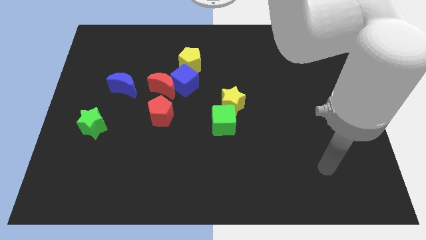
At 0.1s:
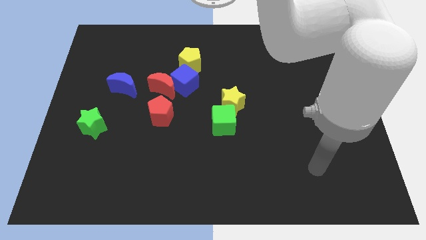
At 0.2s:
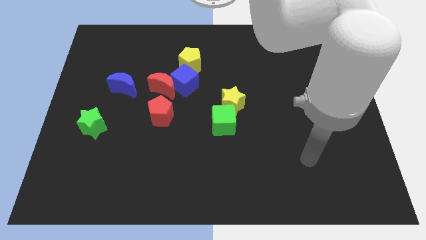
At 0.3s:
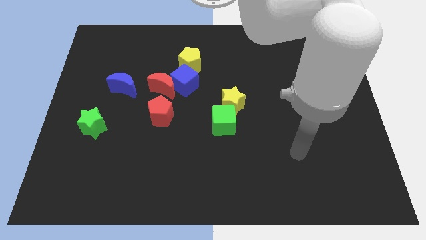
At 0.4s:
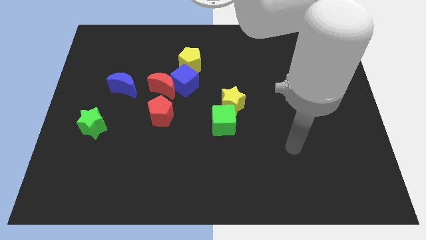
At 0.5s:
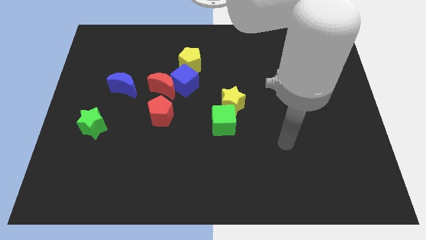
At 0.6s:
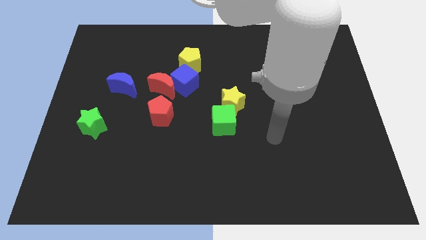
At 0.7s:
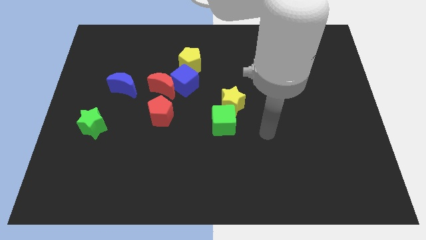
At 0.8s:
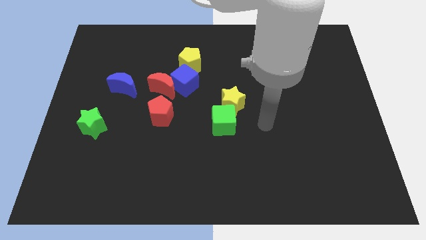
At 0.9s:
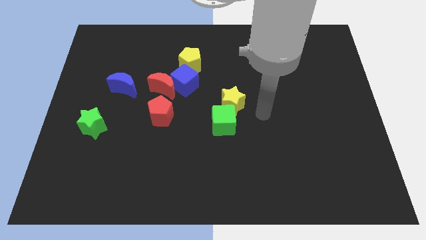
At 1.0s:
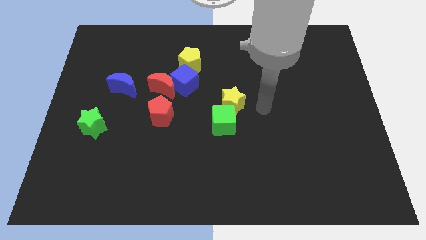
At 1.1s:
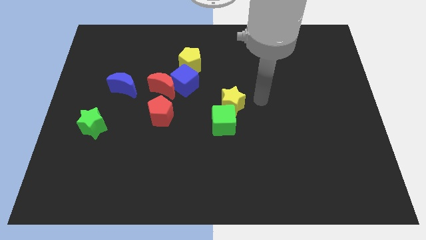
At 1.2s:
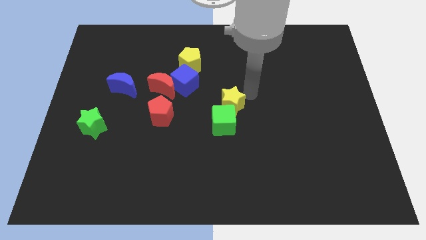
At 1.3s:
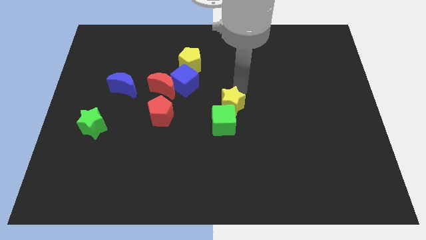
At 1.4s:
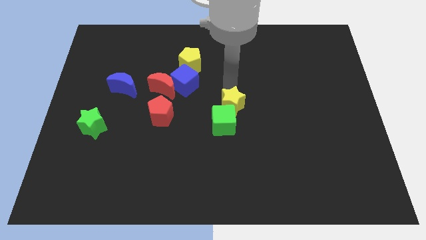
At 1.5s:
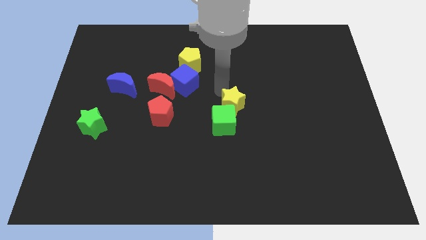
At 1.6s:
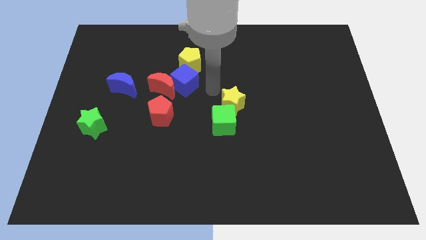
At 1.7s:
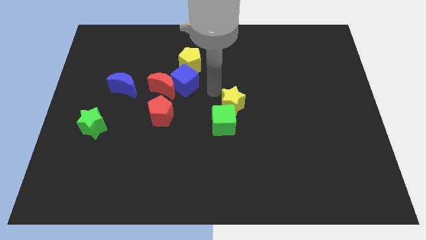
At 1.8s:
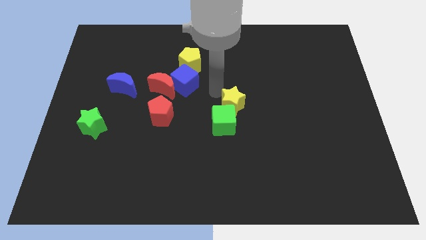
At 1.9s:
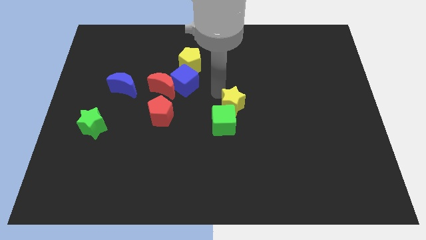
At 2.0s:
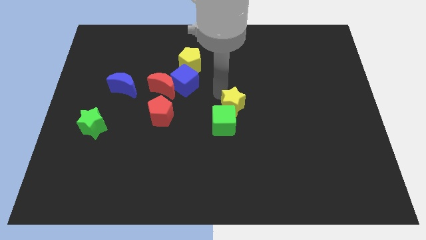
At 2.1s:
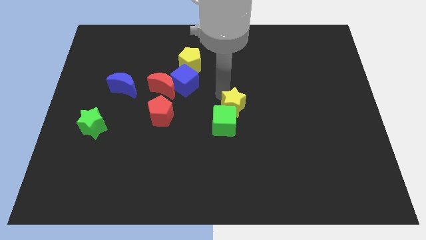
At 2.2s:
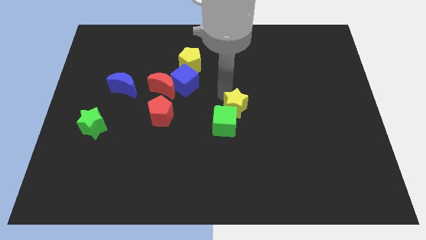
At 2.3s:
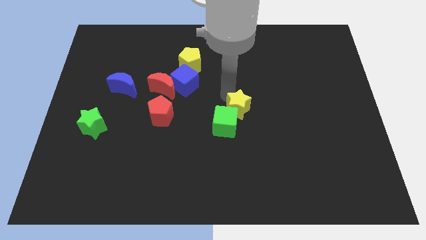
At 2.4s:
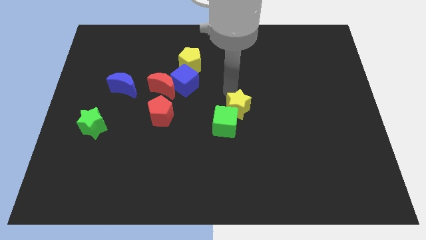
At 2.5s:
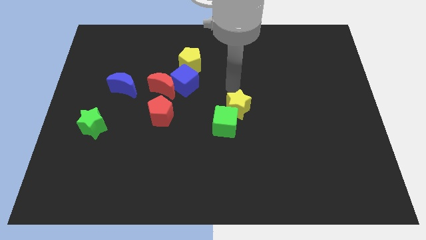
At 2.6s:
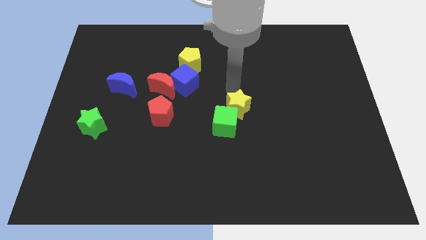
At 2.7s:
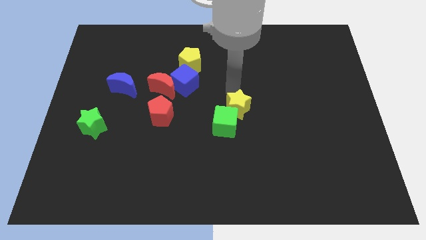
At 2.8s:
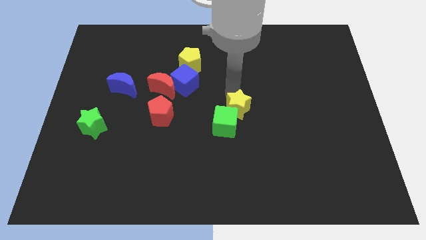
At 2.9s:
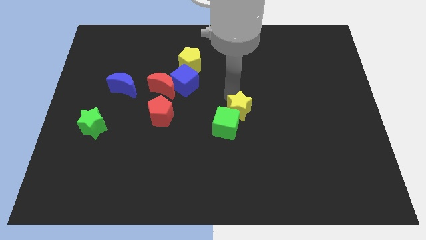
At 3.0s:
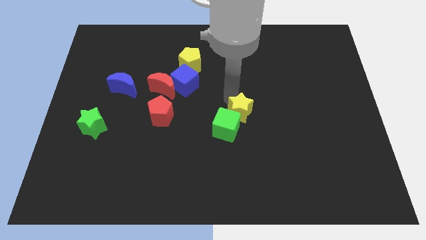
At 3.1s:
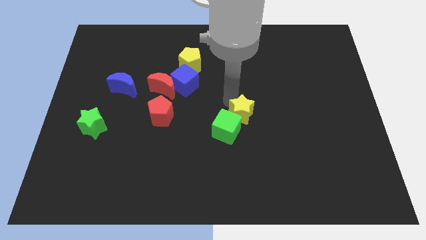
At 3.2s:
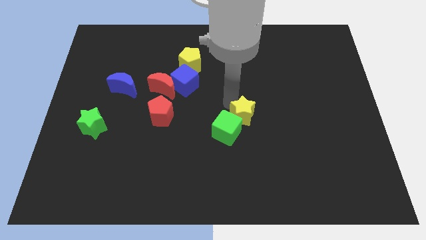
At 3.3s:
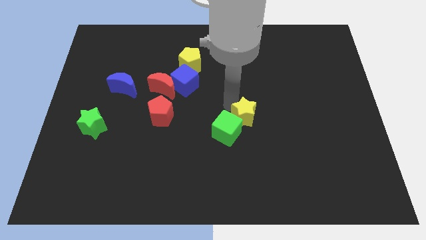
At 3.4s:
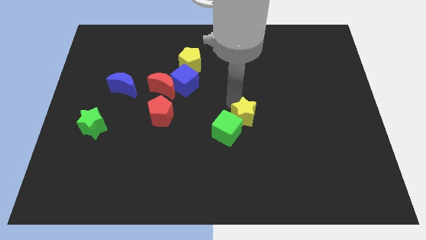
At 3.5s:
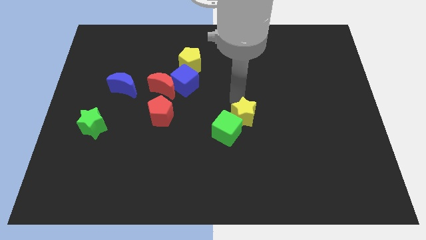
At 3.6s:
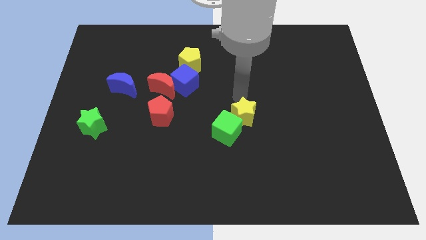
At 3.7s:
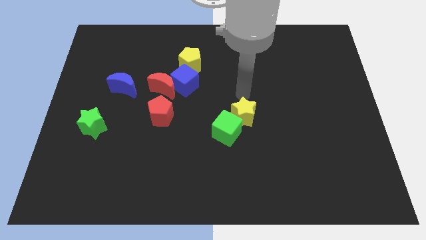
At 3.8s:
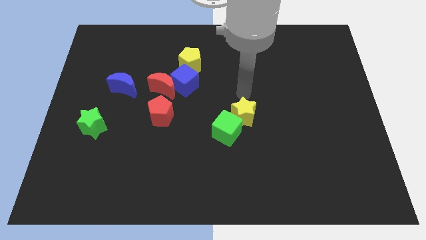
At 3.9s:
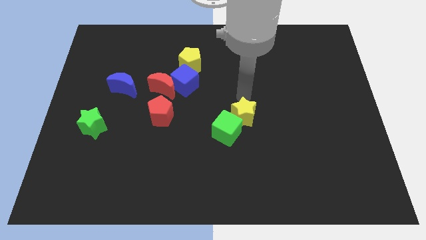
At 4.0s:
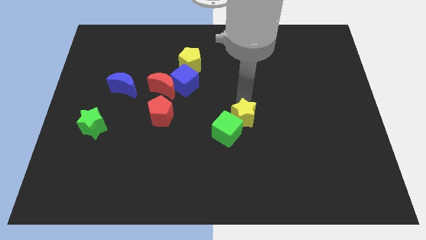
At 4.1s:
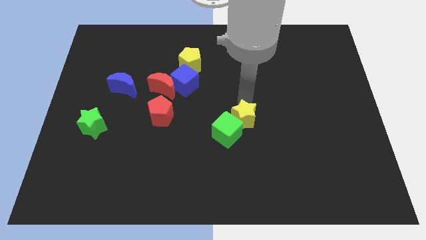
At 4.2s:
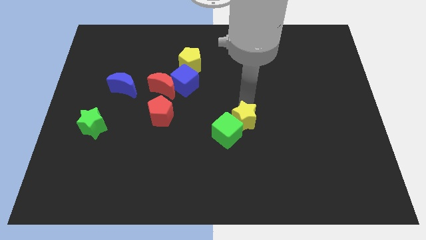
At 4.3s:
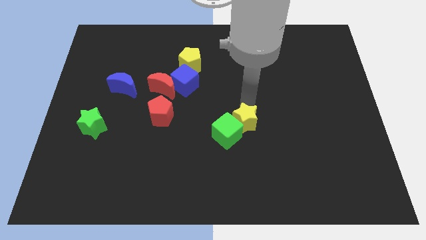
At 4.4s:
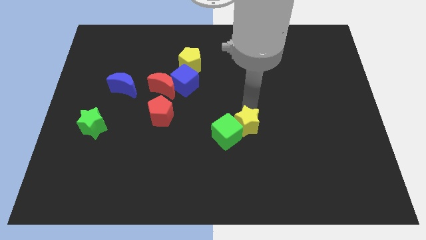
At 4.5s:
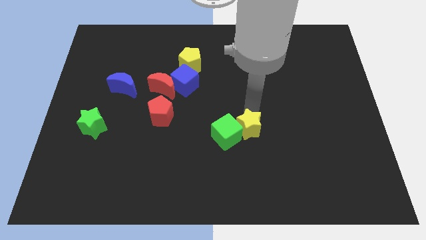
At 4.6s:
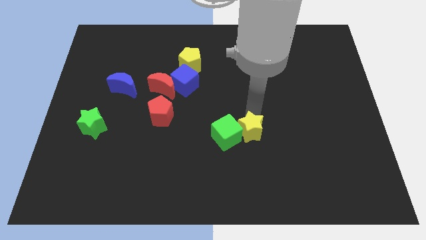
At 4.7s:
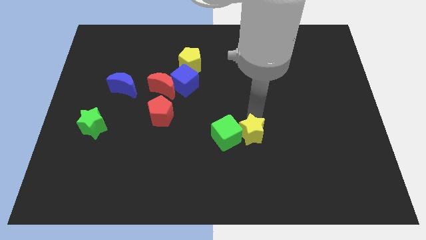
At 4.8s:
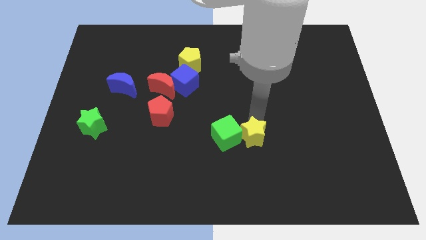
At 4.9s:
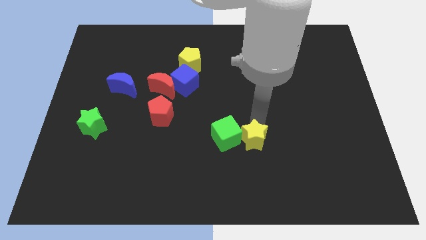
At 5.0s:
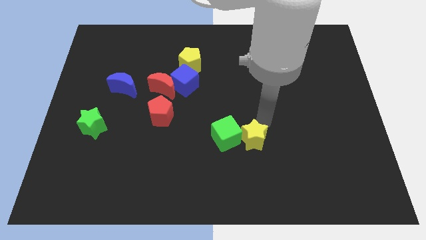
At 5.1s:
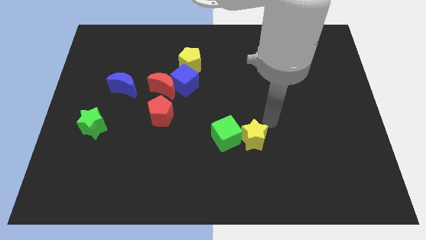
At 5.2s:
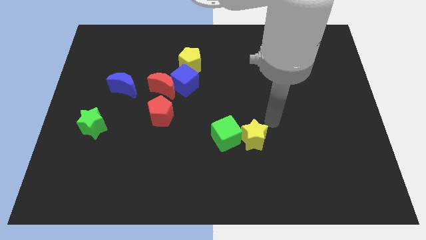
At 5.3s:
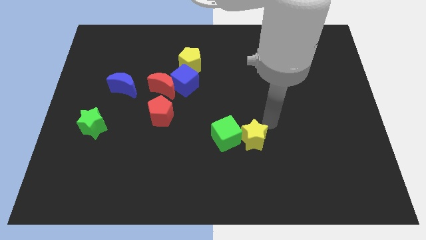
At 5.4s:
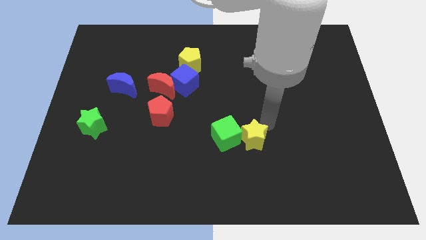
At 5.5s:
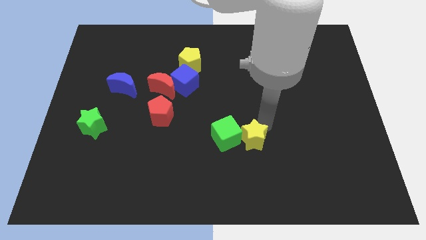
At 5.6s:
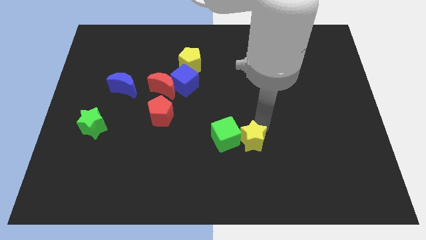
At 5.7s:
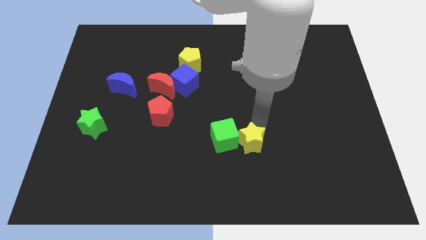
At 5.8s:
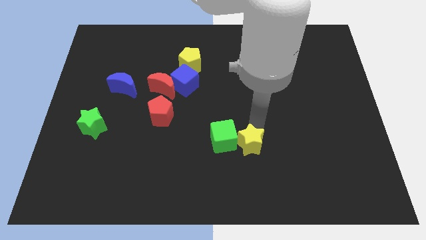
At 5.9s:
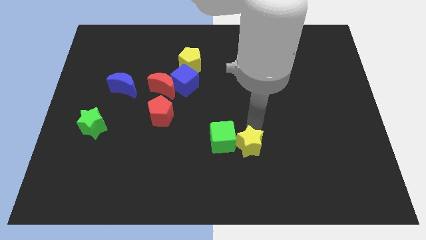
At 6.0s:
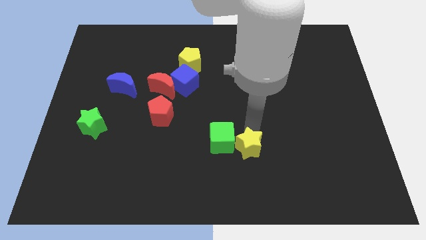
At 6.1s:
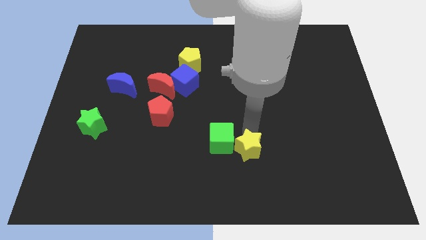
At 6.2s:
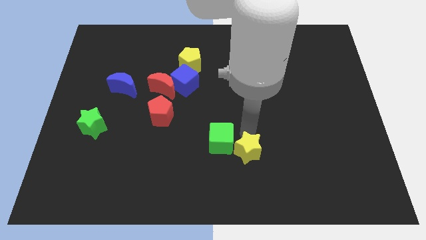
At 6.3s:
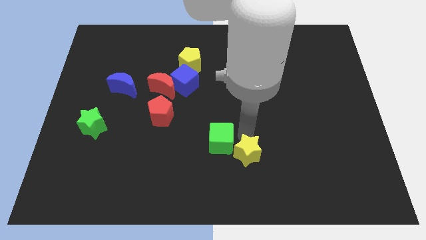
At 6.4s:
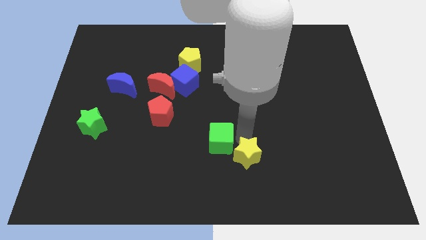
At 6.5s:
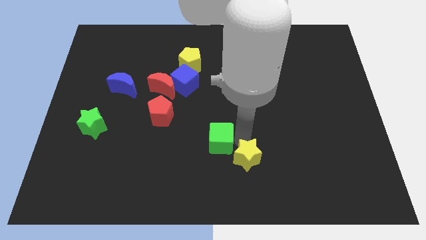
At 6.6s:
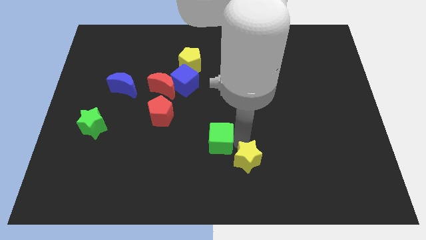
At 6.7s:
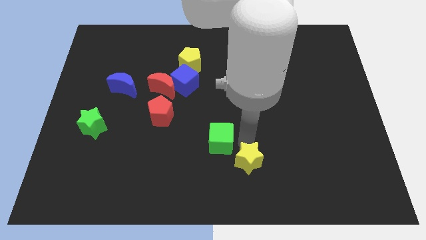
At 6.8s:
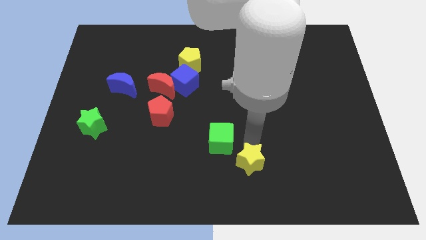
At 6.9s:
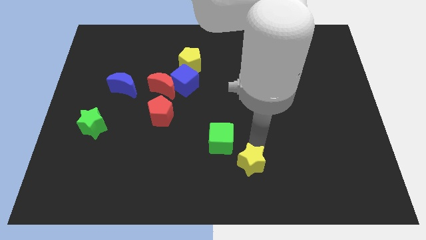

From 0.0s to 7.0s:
put the yellow star to the bottom side

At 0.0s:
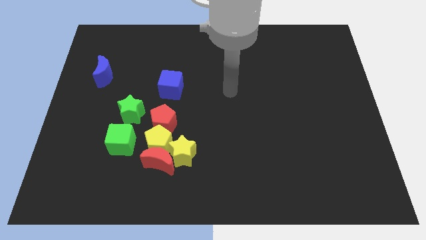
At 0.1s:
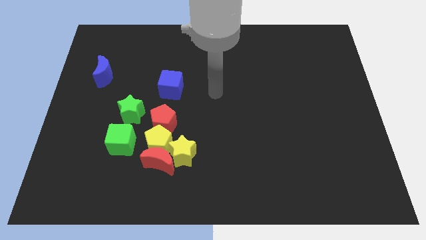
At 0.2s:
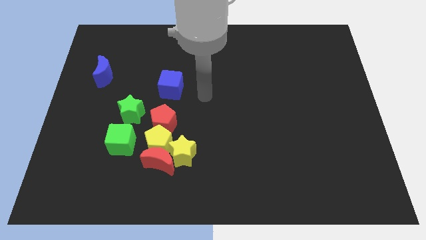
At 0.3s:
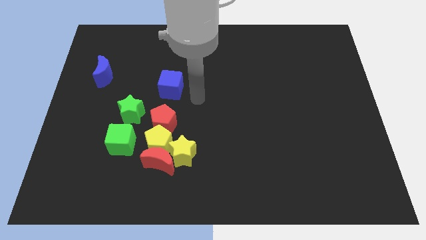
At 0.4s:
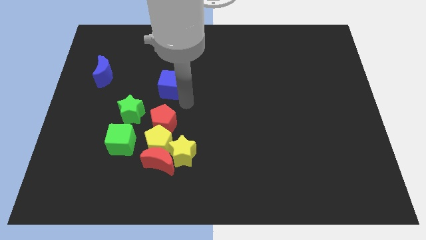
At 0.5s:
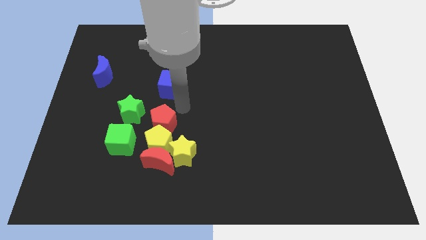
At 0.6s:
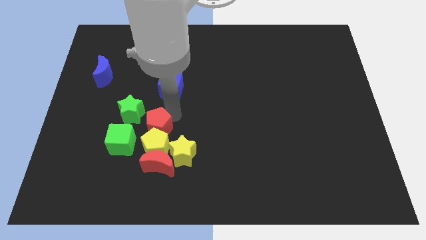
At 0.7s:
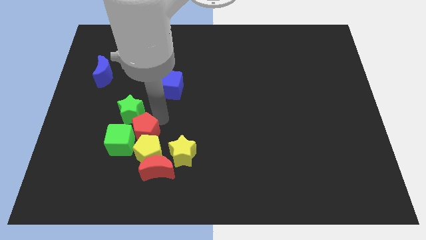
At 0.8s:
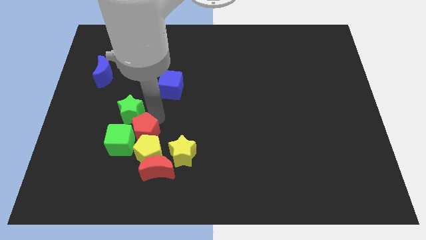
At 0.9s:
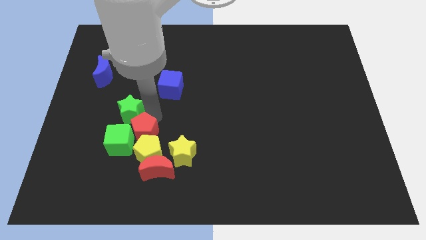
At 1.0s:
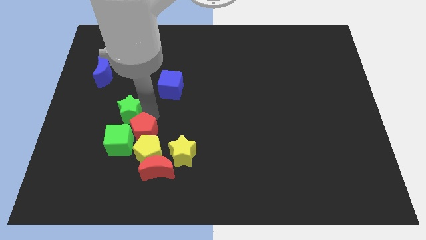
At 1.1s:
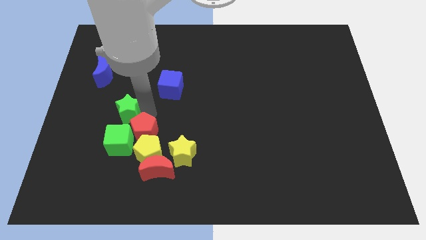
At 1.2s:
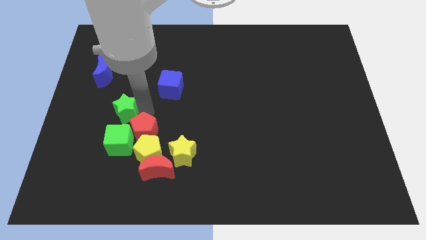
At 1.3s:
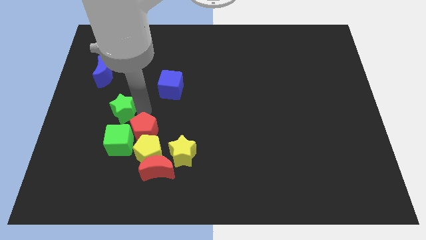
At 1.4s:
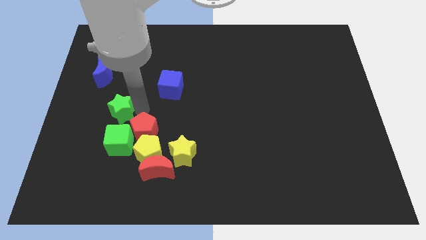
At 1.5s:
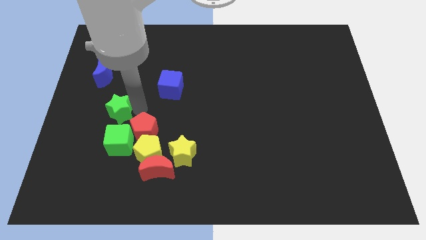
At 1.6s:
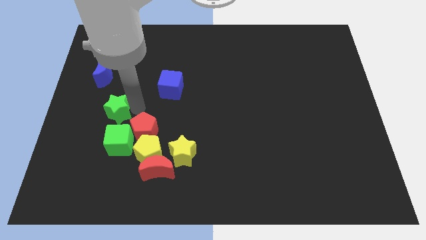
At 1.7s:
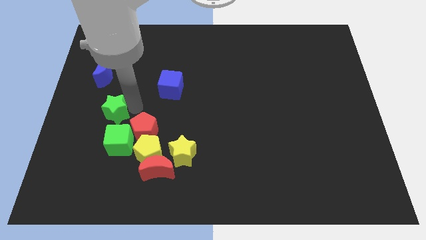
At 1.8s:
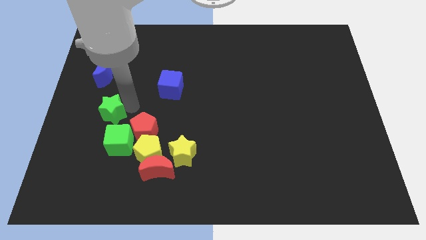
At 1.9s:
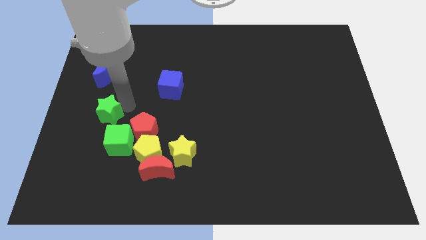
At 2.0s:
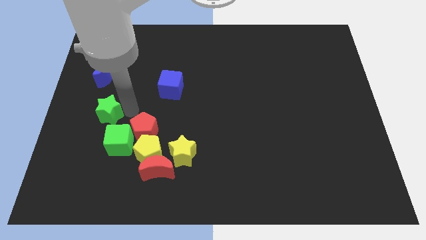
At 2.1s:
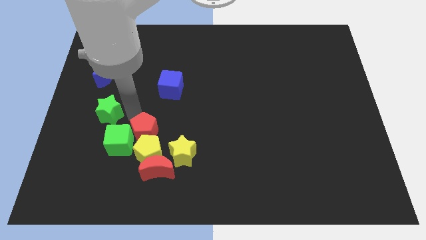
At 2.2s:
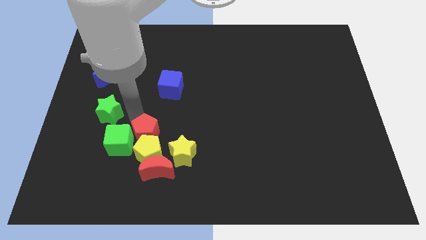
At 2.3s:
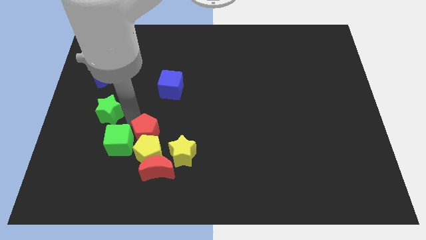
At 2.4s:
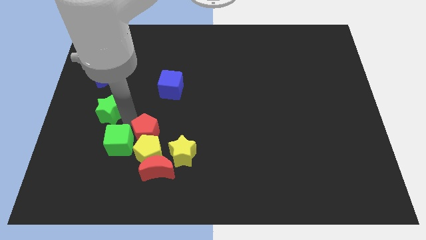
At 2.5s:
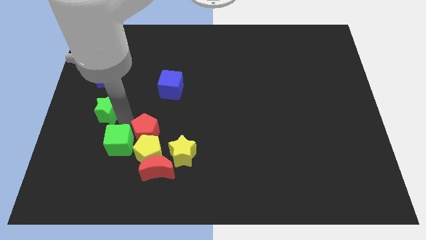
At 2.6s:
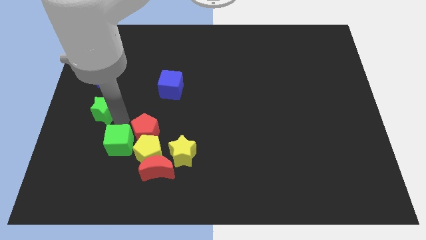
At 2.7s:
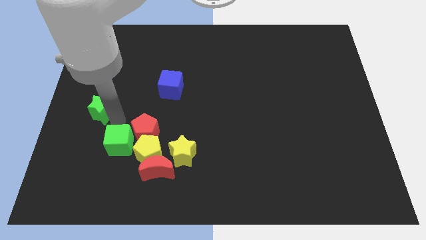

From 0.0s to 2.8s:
push the green star to the left side
